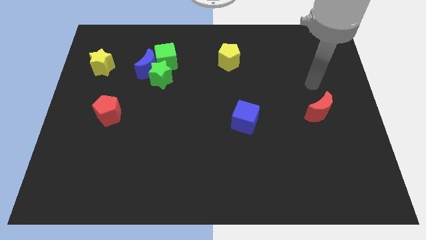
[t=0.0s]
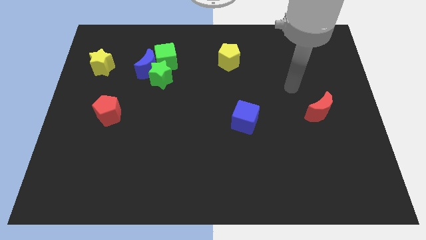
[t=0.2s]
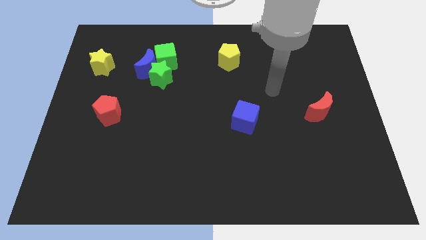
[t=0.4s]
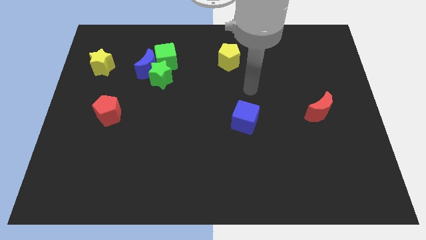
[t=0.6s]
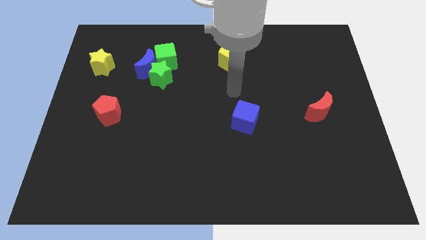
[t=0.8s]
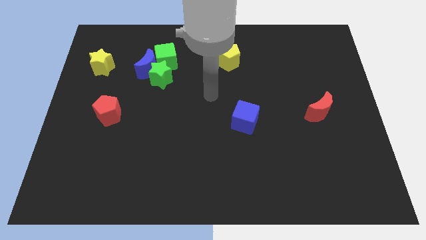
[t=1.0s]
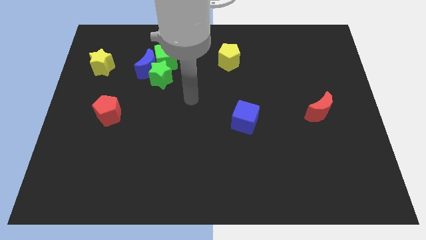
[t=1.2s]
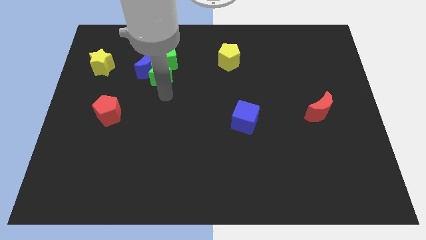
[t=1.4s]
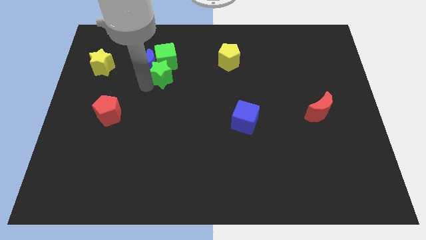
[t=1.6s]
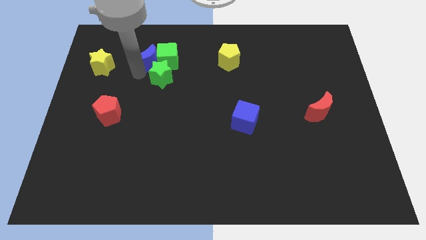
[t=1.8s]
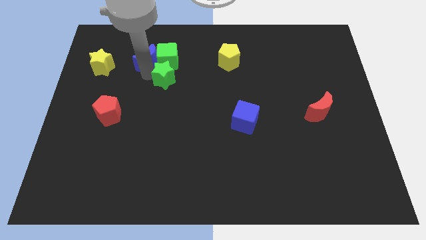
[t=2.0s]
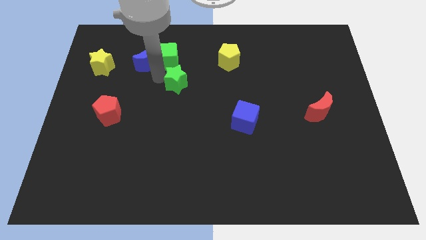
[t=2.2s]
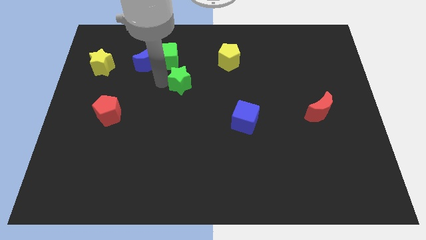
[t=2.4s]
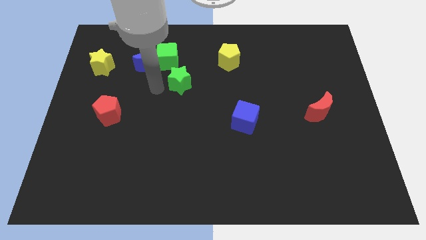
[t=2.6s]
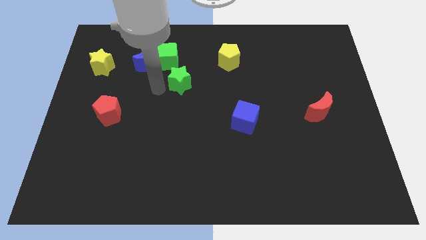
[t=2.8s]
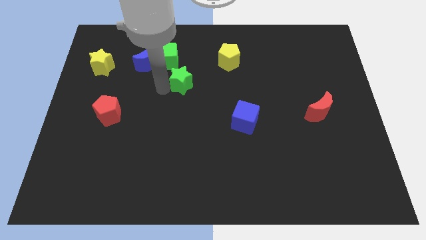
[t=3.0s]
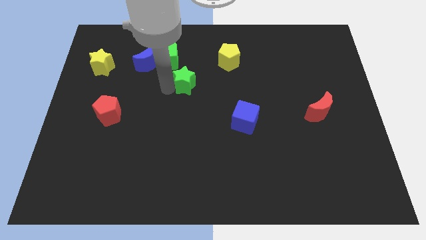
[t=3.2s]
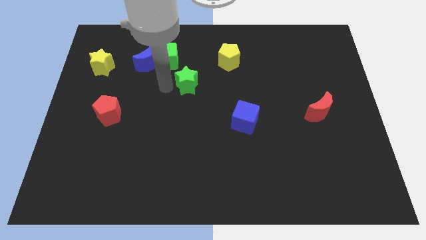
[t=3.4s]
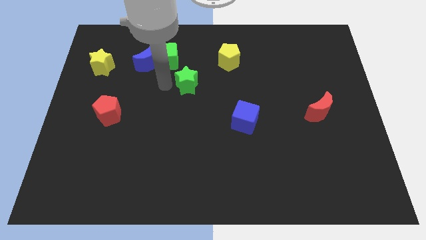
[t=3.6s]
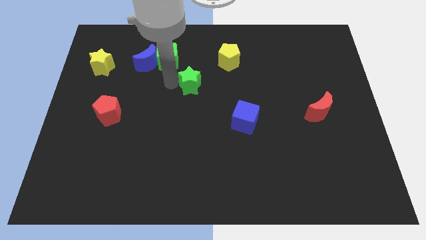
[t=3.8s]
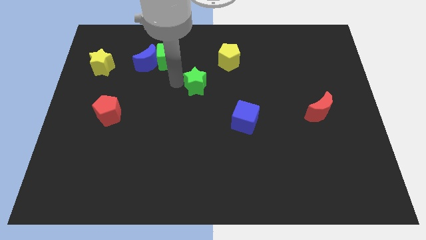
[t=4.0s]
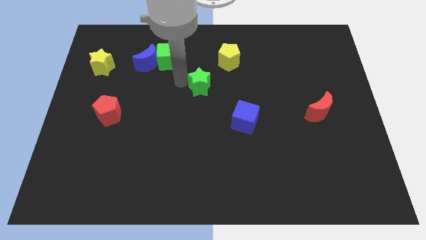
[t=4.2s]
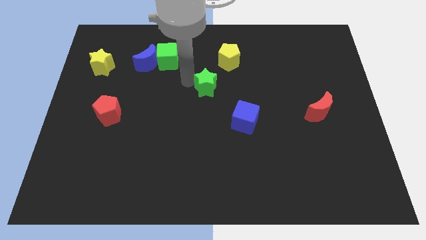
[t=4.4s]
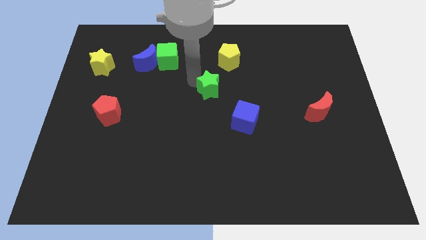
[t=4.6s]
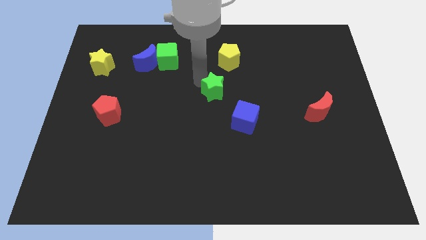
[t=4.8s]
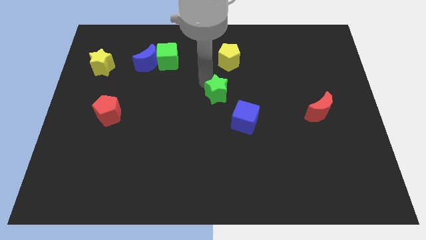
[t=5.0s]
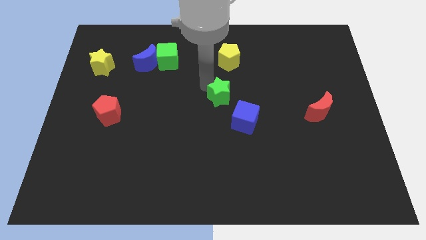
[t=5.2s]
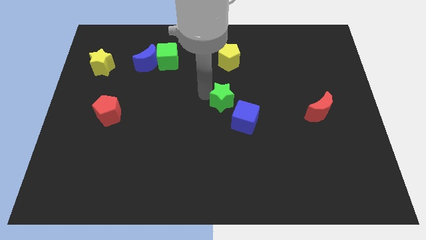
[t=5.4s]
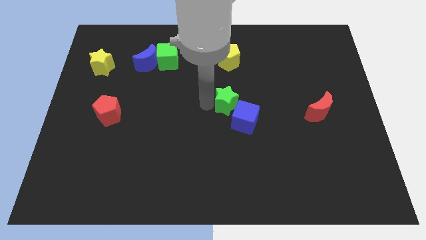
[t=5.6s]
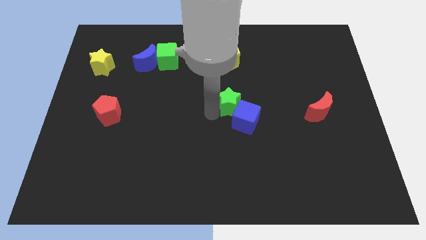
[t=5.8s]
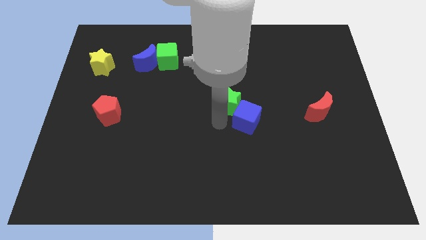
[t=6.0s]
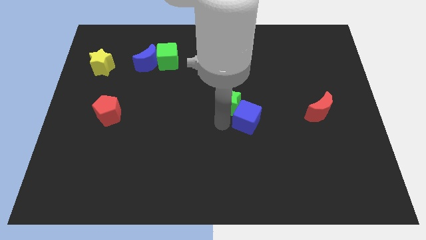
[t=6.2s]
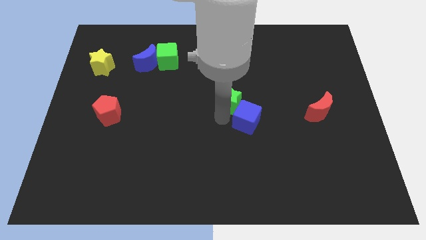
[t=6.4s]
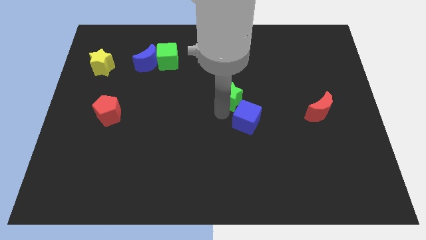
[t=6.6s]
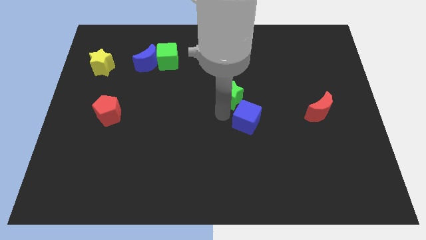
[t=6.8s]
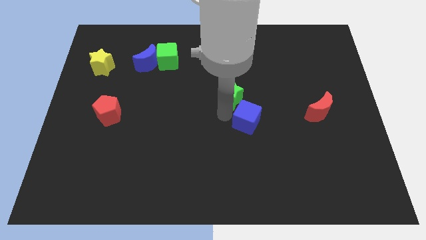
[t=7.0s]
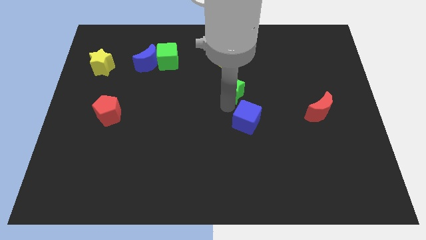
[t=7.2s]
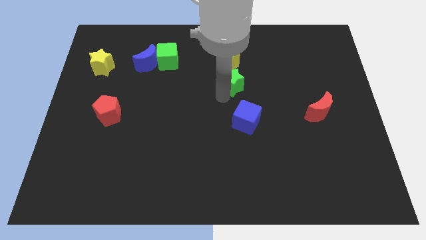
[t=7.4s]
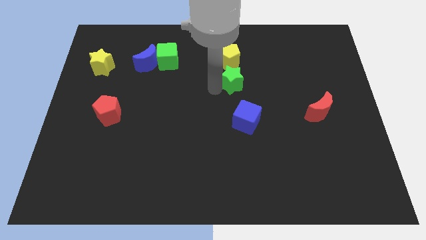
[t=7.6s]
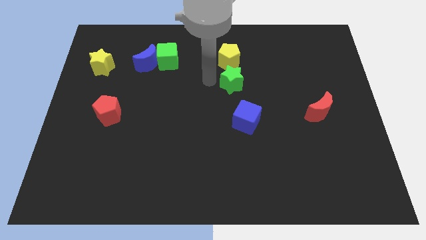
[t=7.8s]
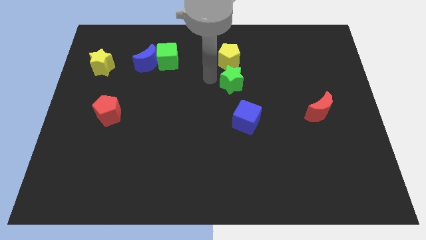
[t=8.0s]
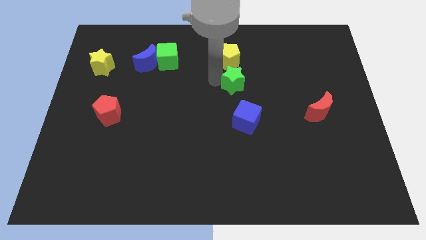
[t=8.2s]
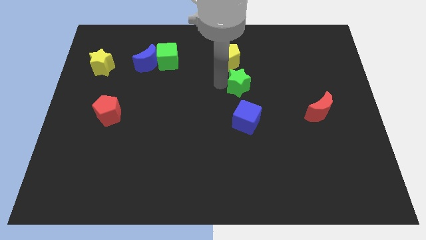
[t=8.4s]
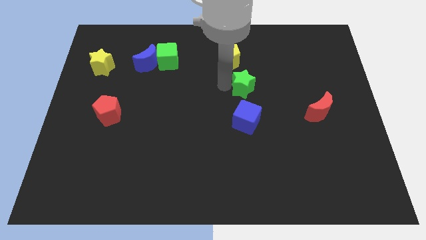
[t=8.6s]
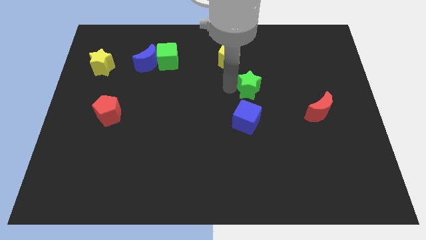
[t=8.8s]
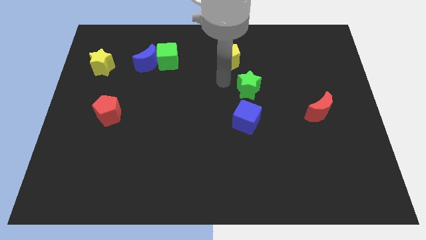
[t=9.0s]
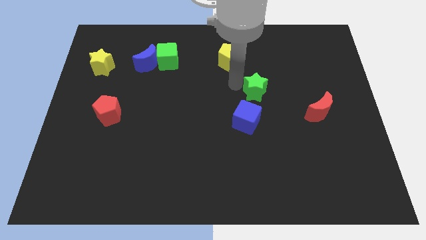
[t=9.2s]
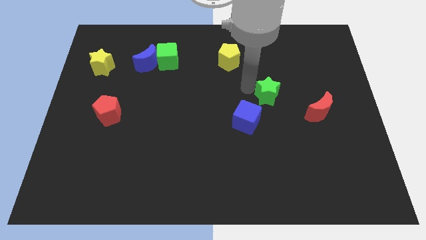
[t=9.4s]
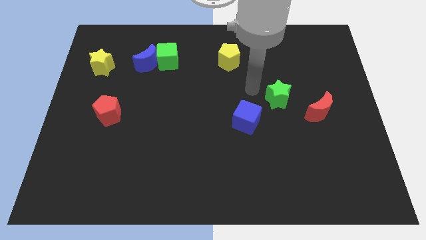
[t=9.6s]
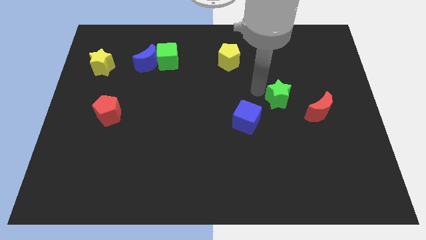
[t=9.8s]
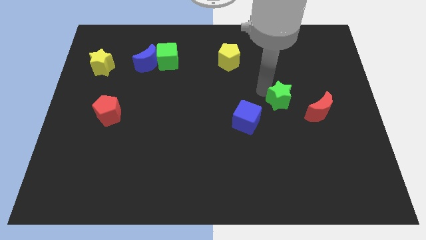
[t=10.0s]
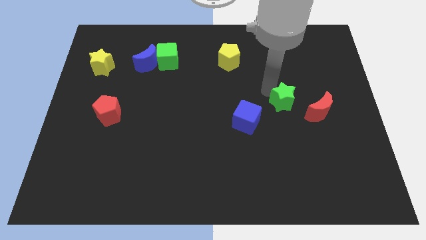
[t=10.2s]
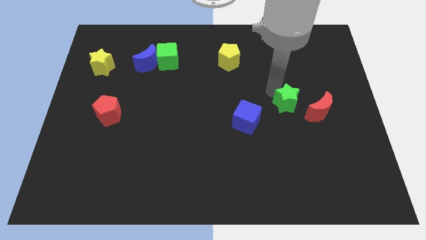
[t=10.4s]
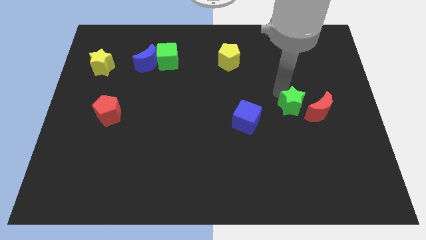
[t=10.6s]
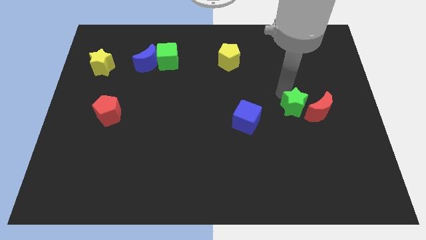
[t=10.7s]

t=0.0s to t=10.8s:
push the green star to the red moon

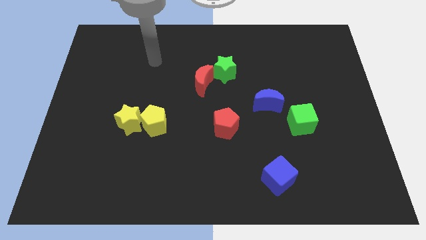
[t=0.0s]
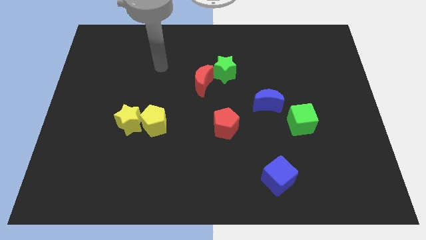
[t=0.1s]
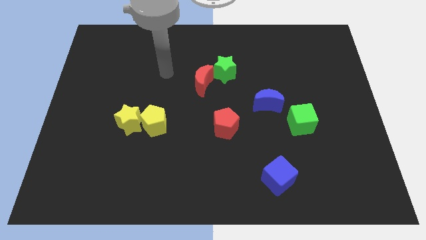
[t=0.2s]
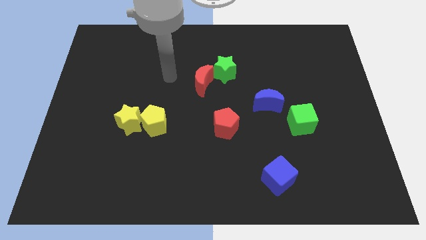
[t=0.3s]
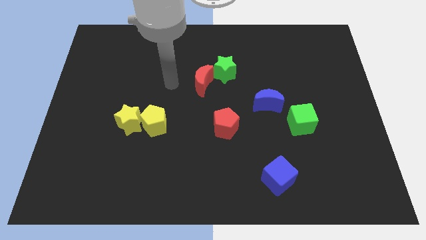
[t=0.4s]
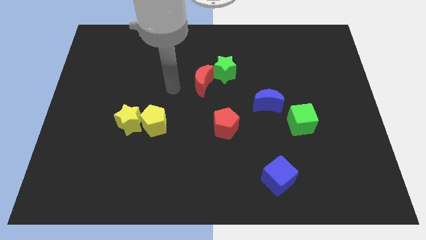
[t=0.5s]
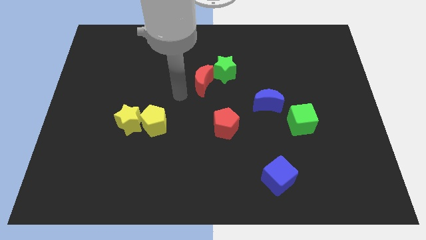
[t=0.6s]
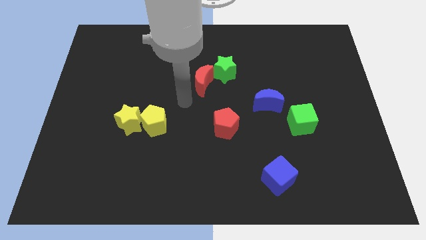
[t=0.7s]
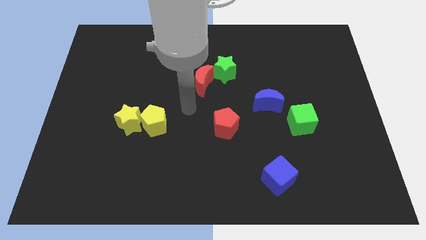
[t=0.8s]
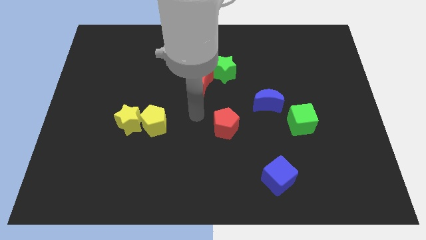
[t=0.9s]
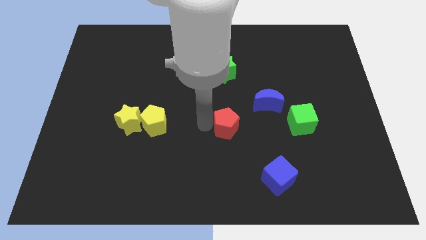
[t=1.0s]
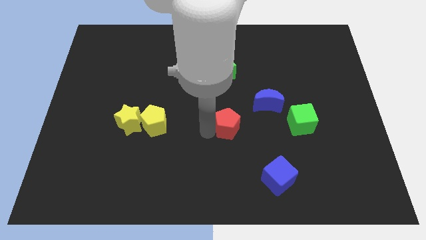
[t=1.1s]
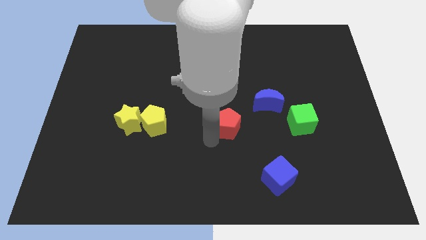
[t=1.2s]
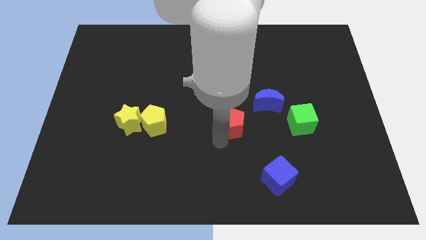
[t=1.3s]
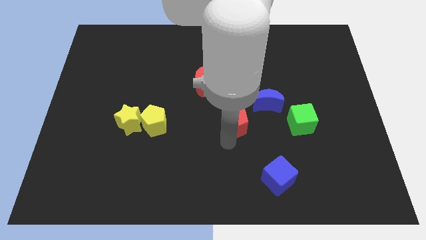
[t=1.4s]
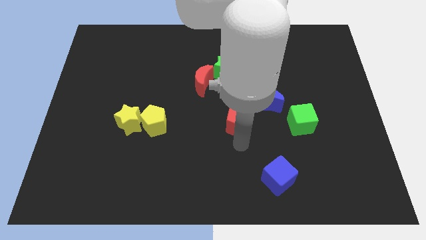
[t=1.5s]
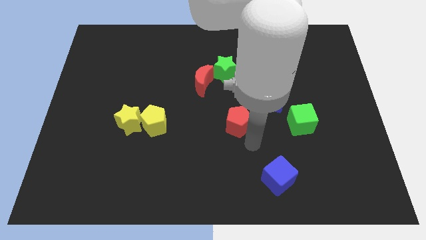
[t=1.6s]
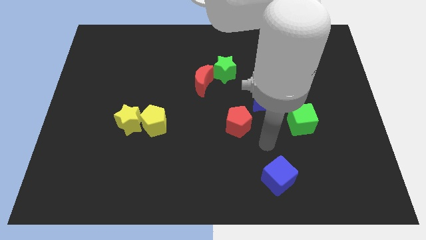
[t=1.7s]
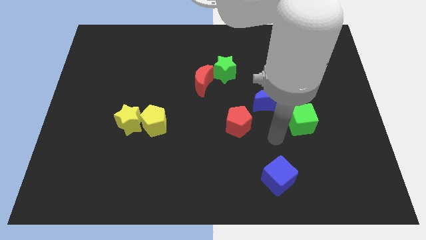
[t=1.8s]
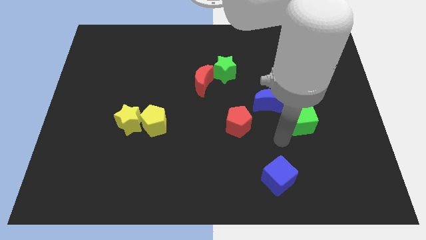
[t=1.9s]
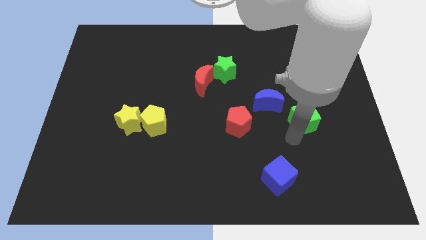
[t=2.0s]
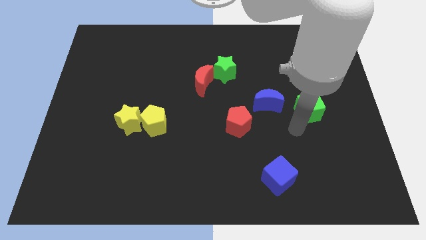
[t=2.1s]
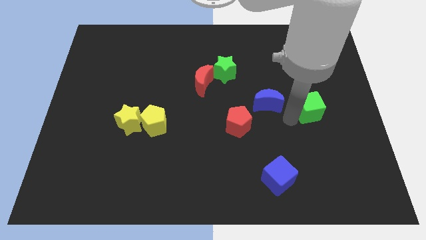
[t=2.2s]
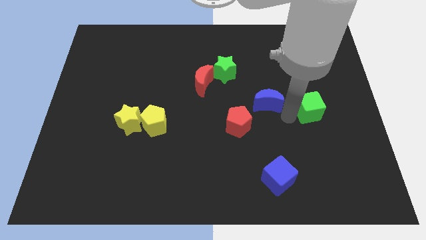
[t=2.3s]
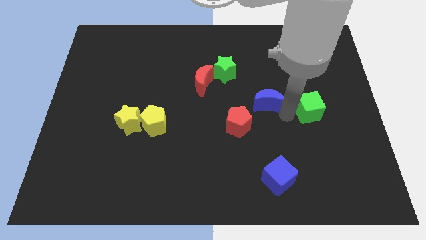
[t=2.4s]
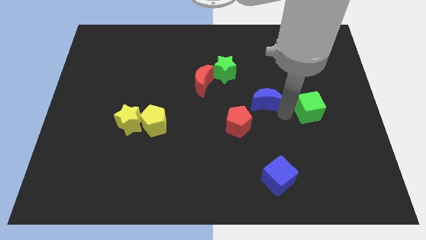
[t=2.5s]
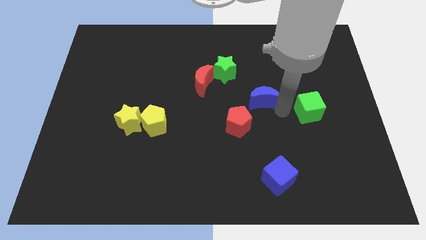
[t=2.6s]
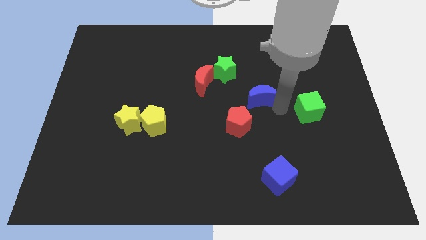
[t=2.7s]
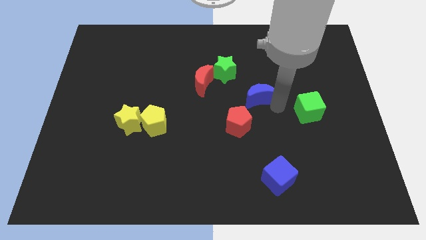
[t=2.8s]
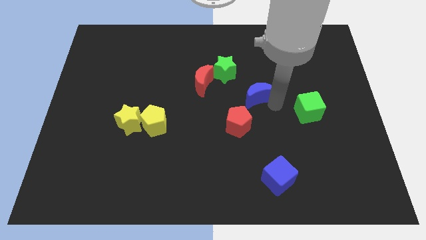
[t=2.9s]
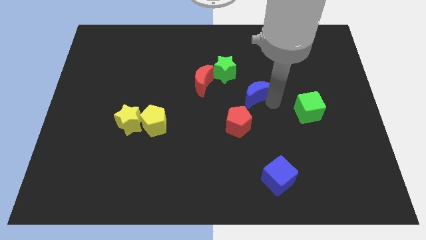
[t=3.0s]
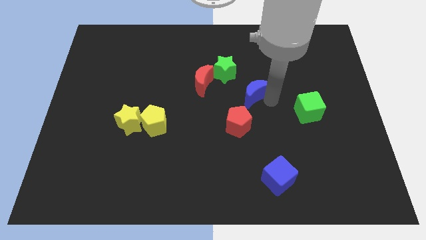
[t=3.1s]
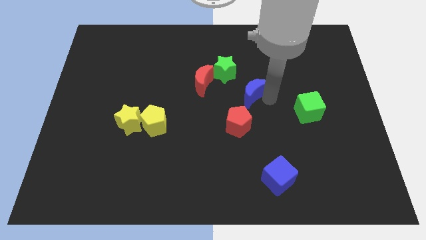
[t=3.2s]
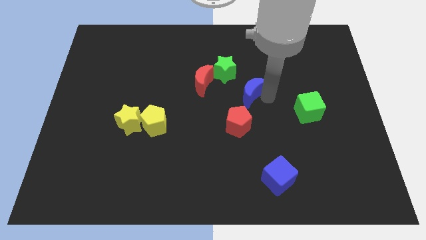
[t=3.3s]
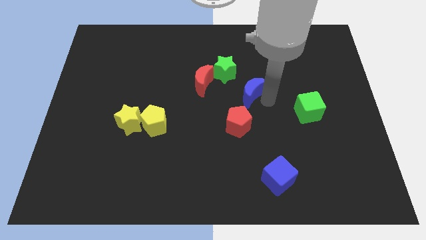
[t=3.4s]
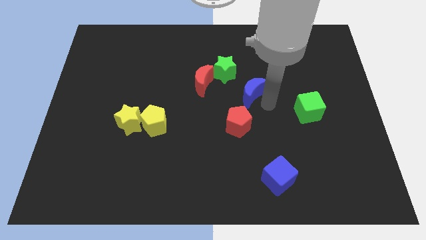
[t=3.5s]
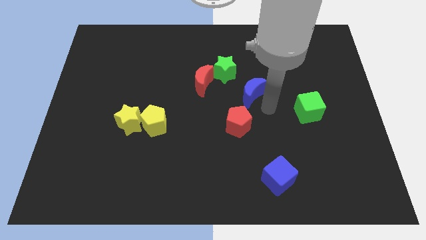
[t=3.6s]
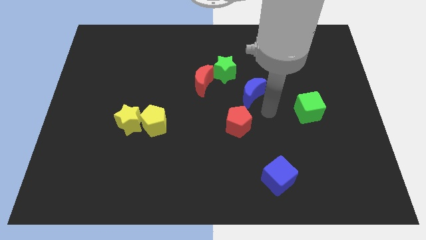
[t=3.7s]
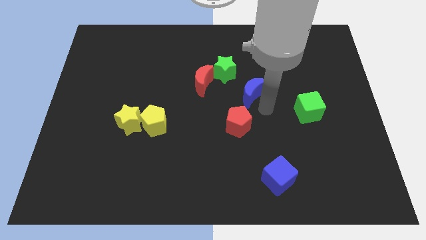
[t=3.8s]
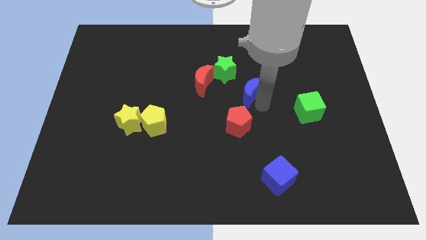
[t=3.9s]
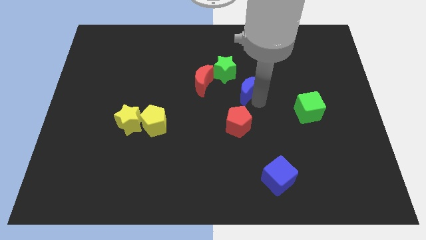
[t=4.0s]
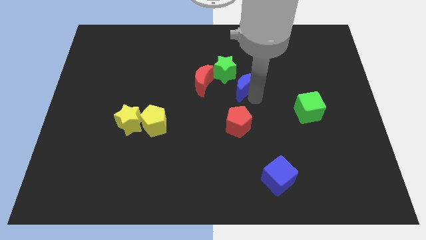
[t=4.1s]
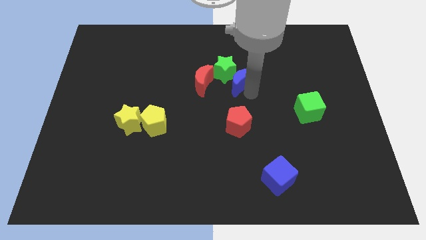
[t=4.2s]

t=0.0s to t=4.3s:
put the blue moon towards the green star
